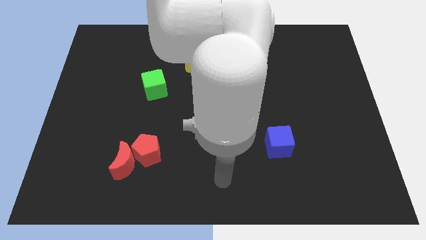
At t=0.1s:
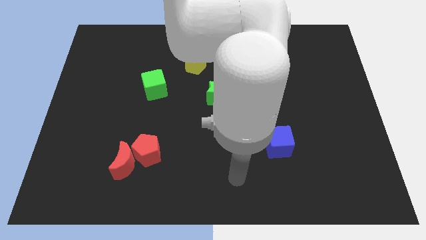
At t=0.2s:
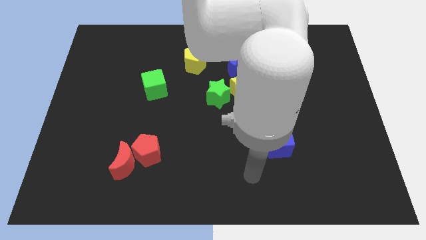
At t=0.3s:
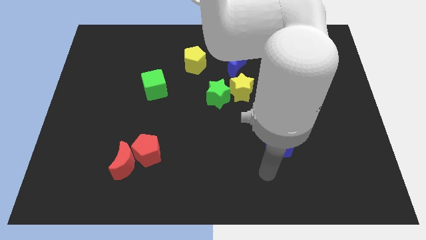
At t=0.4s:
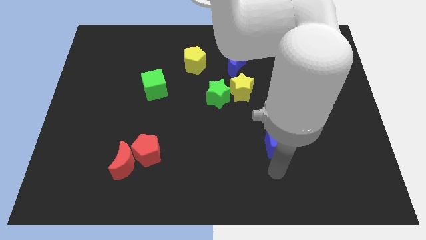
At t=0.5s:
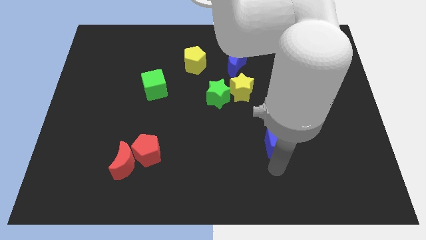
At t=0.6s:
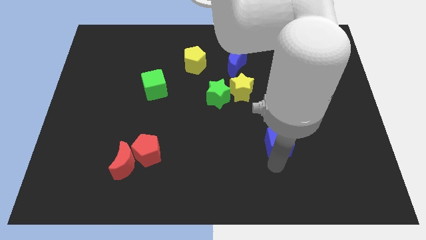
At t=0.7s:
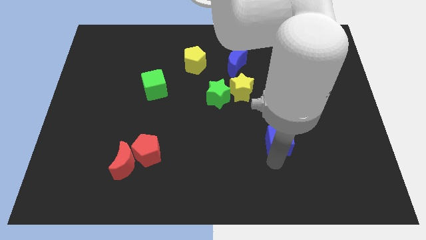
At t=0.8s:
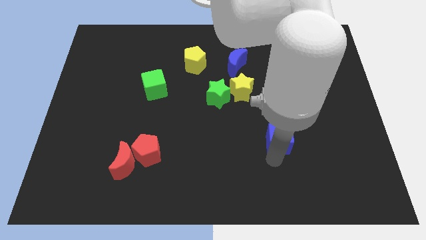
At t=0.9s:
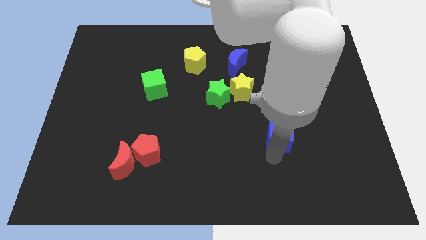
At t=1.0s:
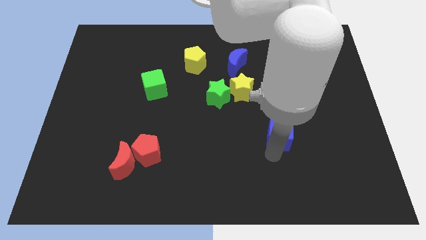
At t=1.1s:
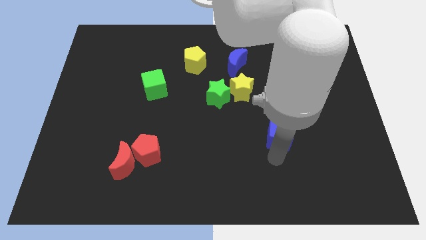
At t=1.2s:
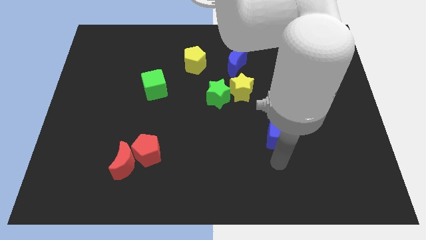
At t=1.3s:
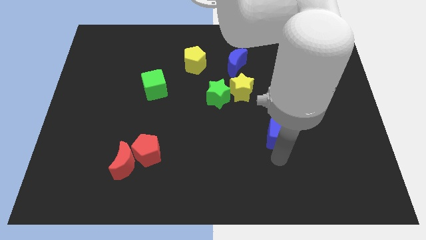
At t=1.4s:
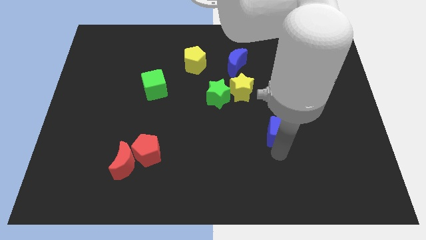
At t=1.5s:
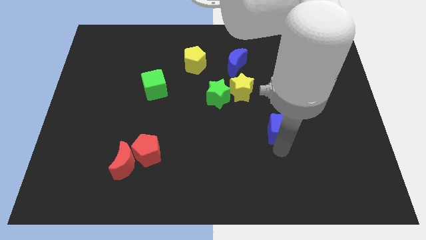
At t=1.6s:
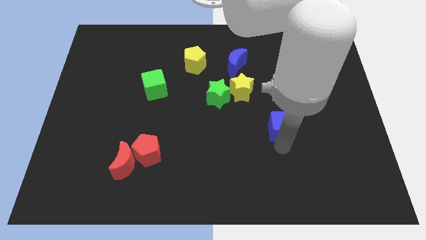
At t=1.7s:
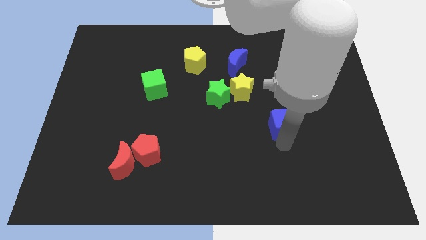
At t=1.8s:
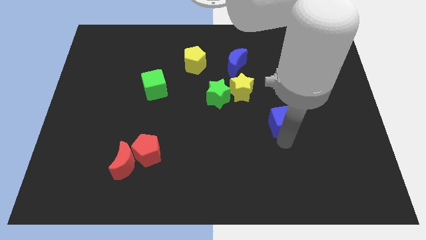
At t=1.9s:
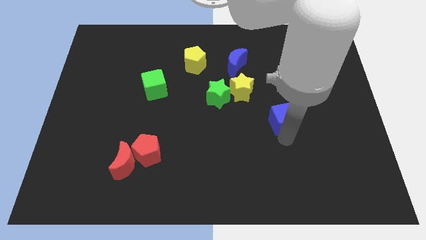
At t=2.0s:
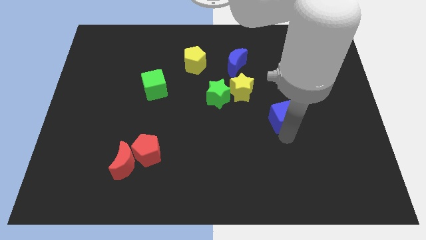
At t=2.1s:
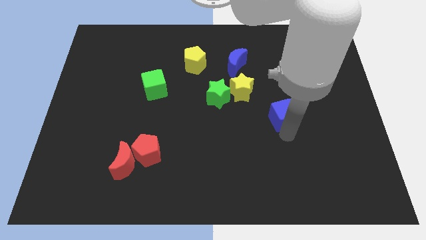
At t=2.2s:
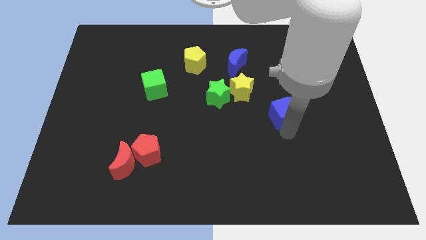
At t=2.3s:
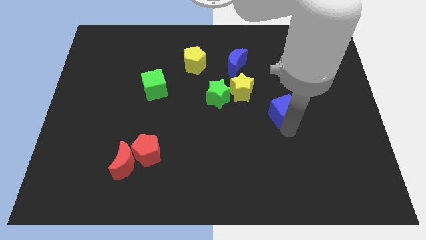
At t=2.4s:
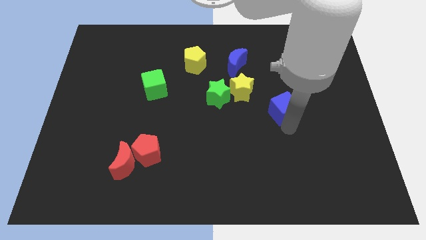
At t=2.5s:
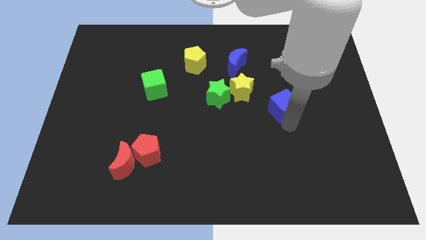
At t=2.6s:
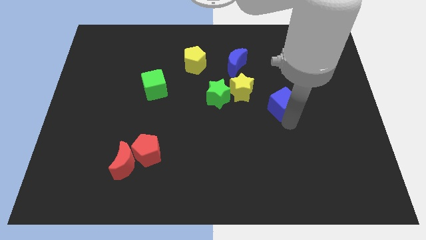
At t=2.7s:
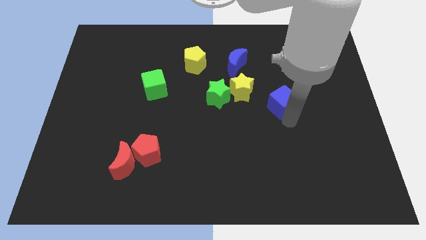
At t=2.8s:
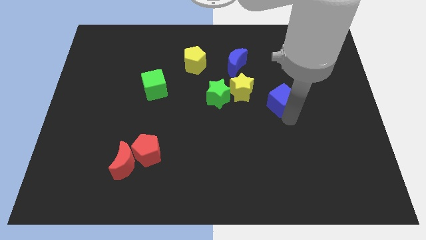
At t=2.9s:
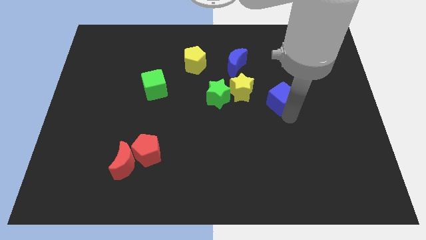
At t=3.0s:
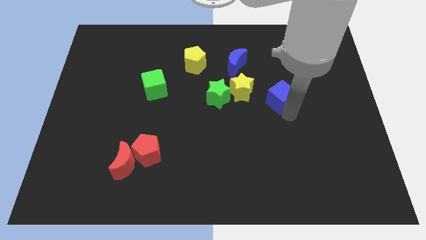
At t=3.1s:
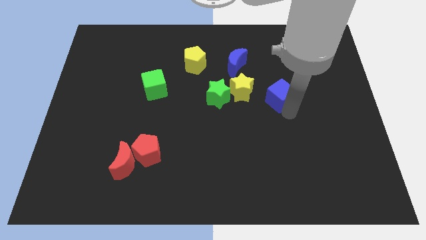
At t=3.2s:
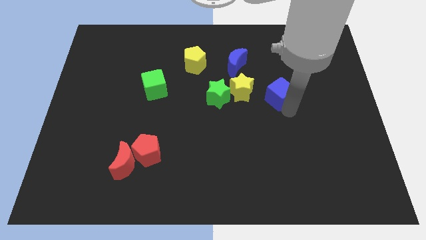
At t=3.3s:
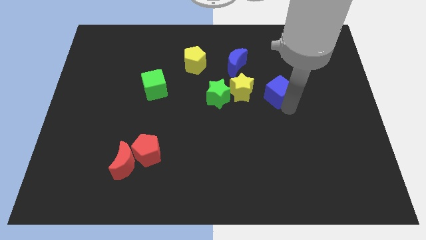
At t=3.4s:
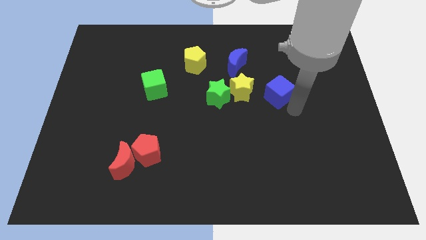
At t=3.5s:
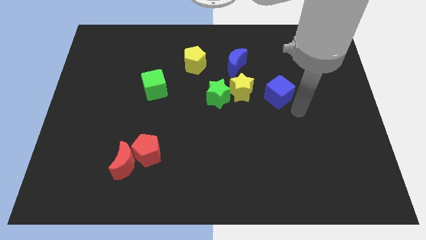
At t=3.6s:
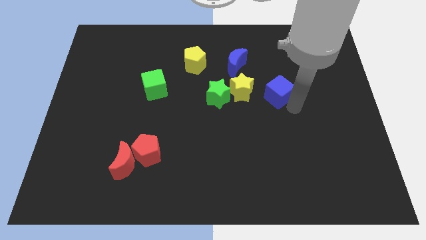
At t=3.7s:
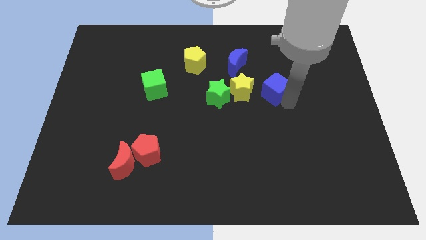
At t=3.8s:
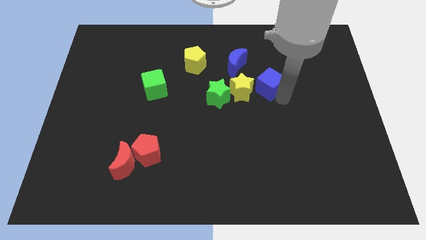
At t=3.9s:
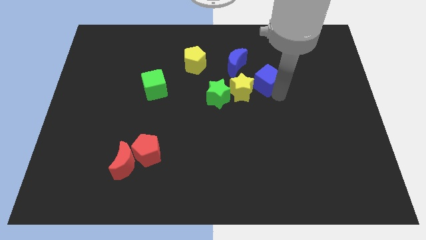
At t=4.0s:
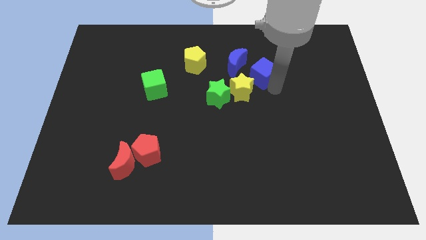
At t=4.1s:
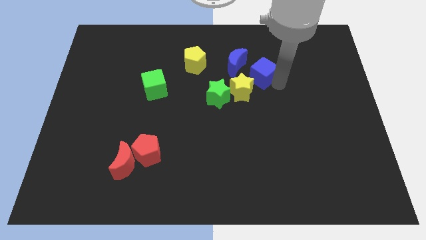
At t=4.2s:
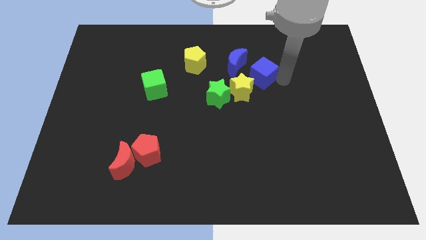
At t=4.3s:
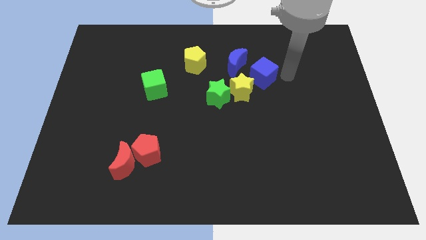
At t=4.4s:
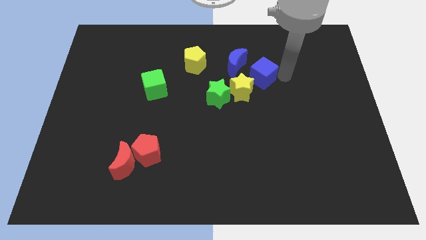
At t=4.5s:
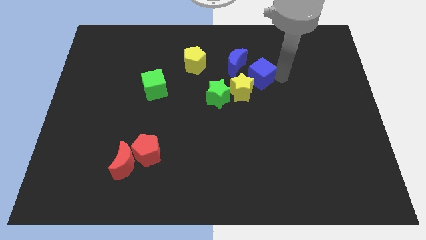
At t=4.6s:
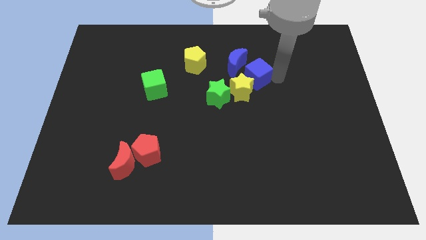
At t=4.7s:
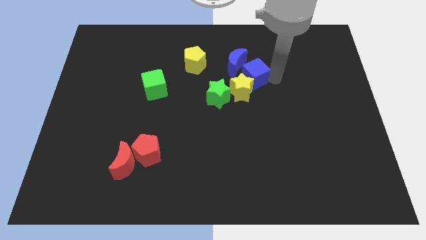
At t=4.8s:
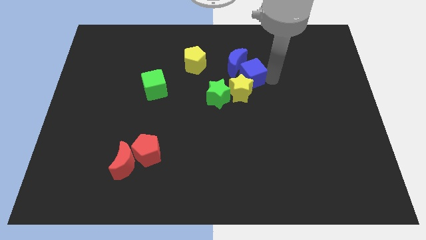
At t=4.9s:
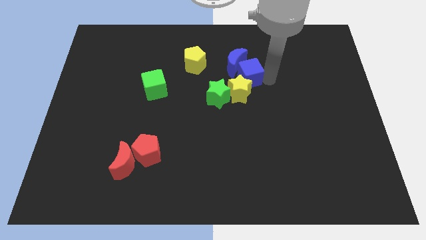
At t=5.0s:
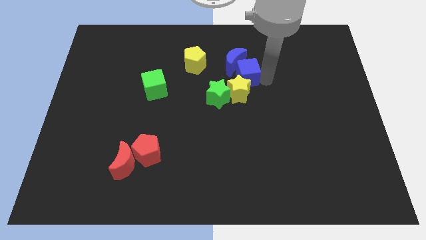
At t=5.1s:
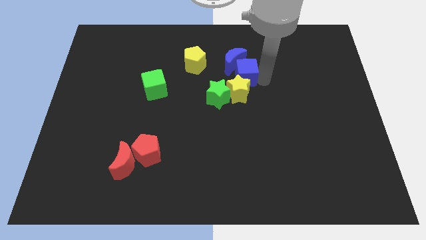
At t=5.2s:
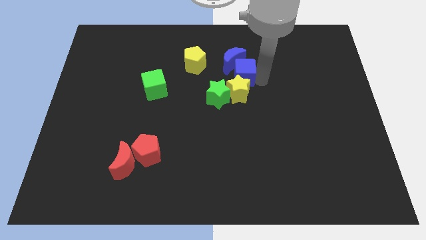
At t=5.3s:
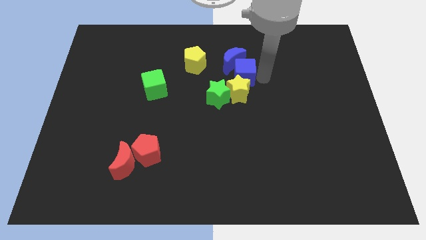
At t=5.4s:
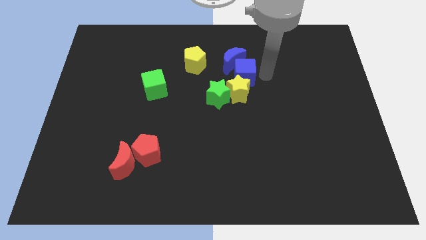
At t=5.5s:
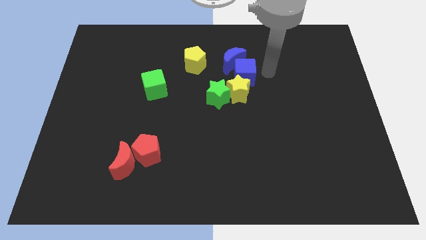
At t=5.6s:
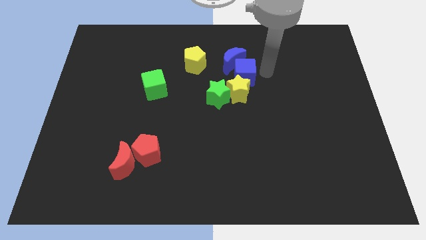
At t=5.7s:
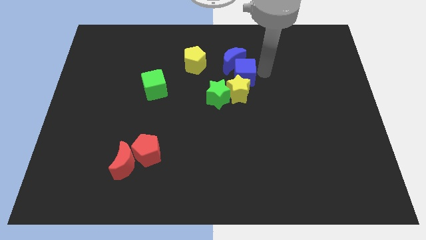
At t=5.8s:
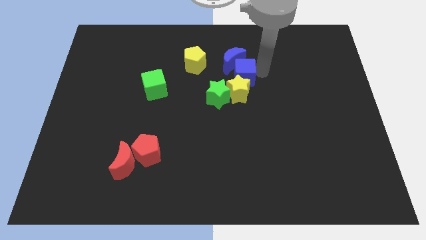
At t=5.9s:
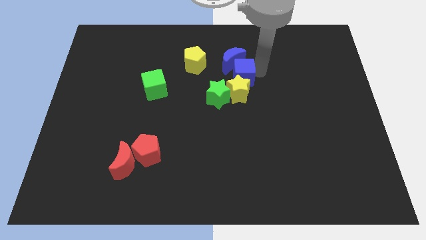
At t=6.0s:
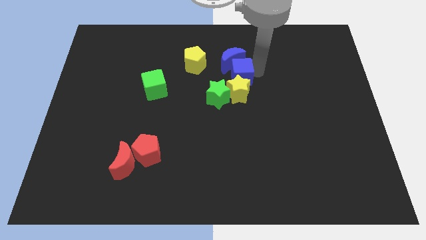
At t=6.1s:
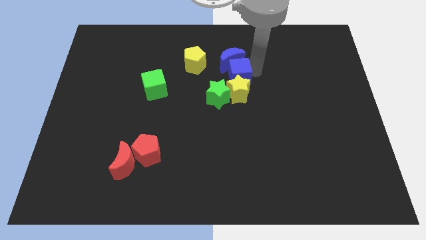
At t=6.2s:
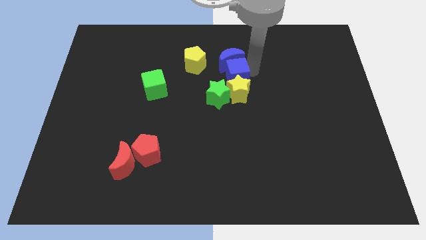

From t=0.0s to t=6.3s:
slide the blue cube above the green star

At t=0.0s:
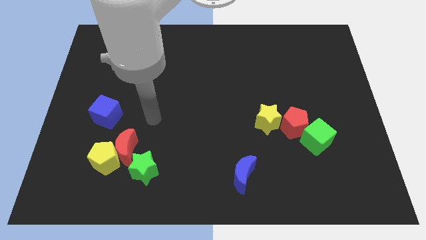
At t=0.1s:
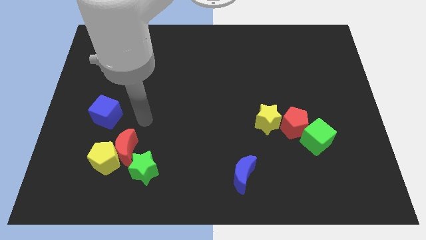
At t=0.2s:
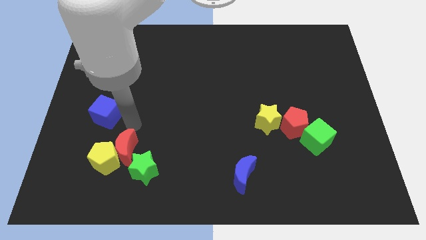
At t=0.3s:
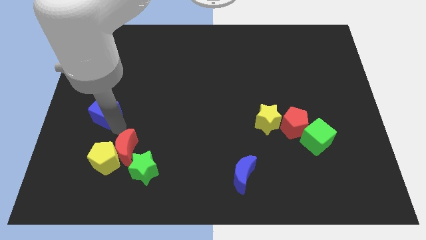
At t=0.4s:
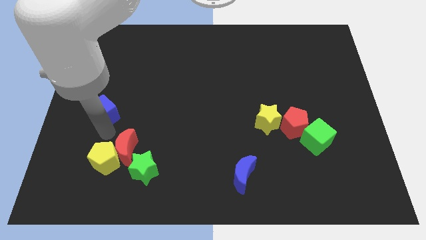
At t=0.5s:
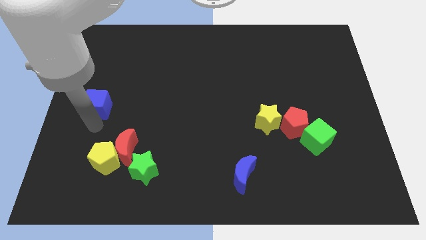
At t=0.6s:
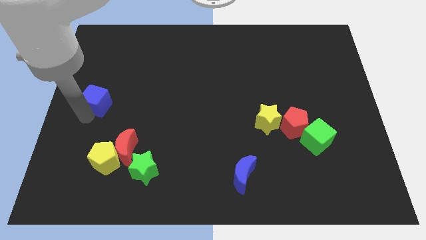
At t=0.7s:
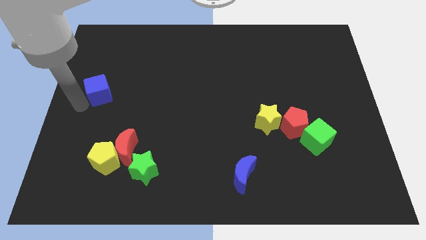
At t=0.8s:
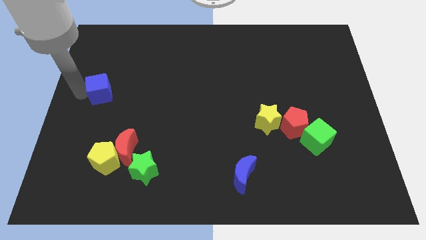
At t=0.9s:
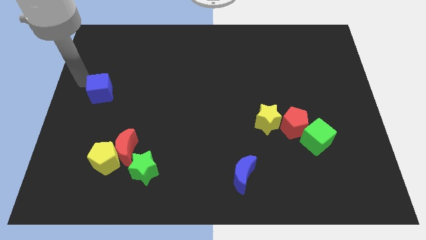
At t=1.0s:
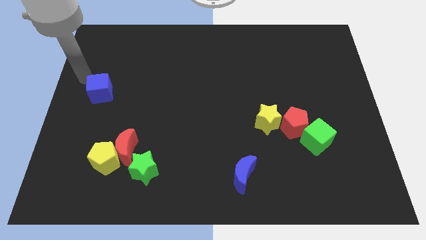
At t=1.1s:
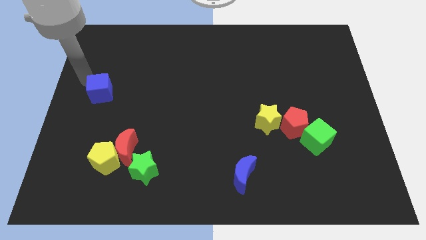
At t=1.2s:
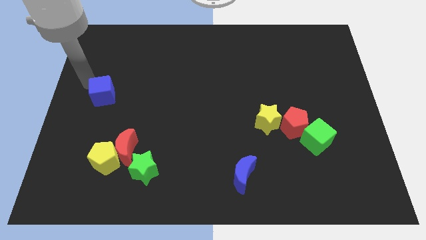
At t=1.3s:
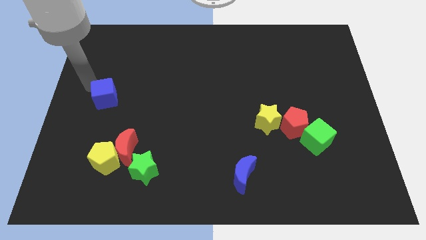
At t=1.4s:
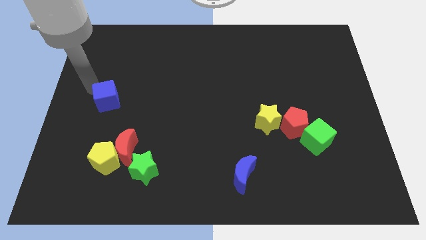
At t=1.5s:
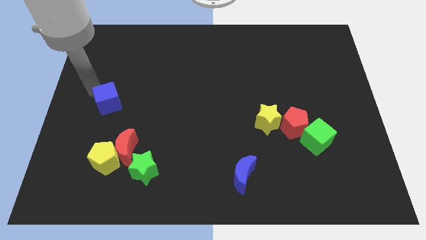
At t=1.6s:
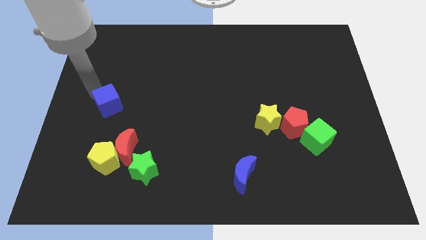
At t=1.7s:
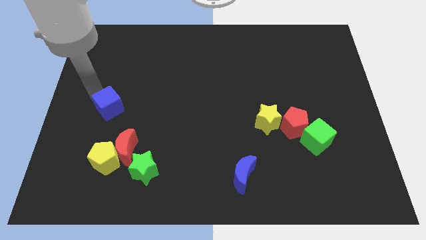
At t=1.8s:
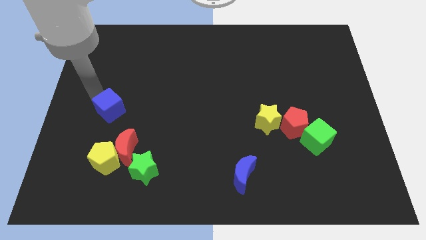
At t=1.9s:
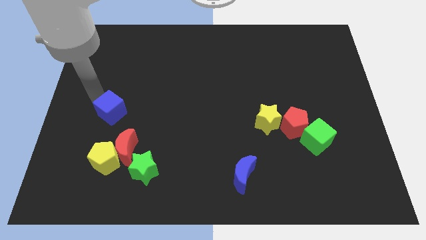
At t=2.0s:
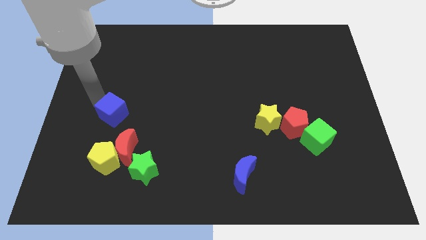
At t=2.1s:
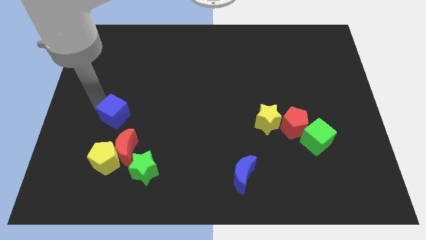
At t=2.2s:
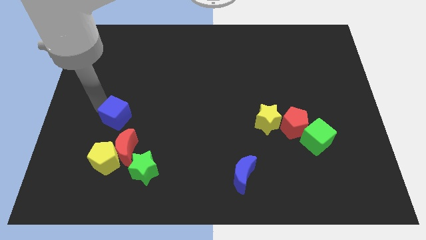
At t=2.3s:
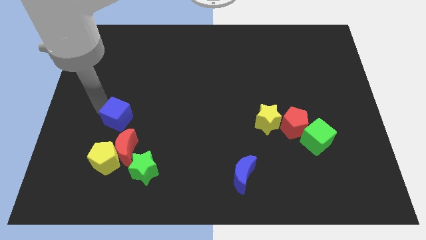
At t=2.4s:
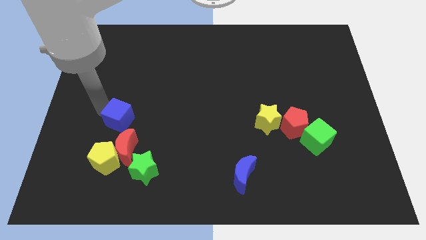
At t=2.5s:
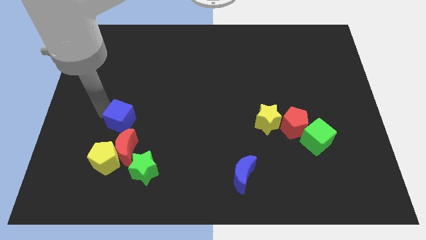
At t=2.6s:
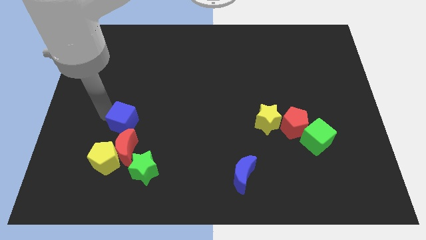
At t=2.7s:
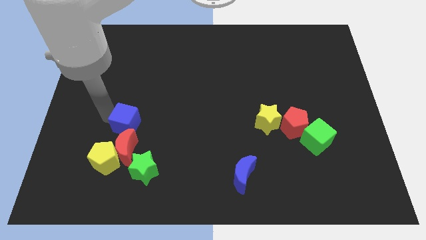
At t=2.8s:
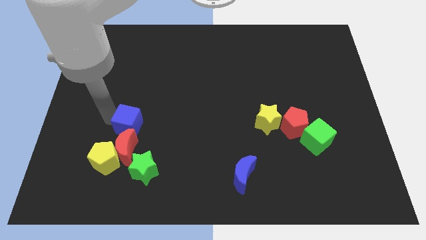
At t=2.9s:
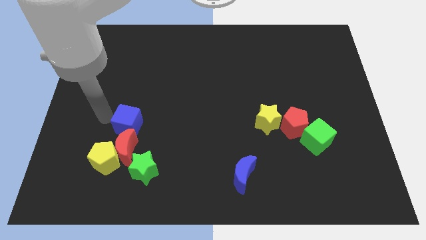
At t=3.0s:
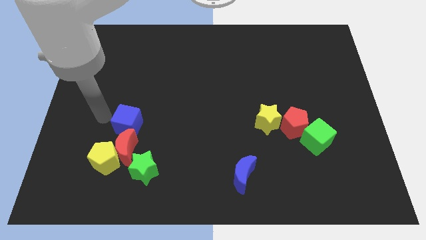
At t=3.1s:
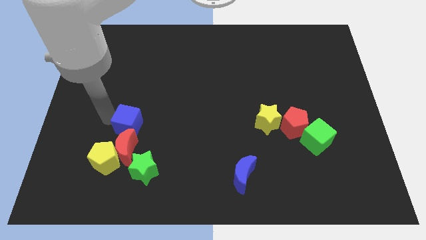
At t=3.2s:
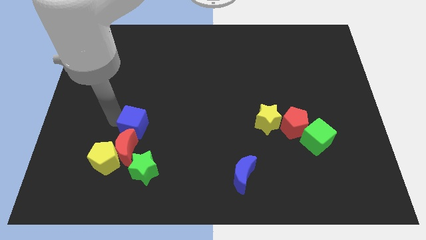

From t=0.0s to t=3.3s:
move the blue cube to the top right side of the red moon
